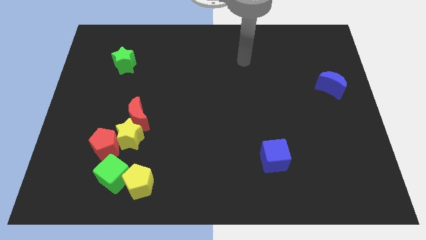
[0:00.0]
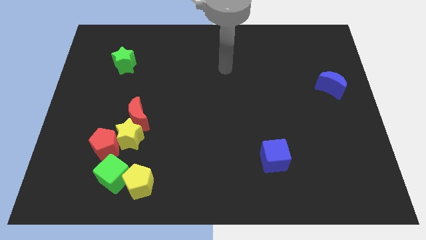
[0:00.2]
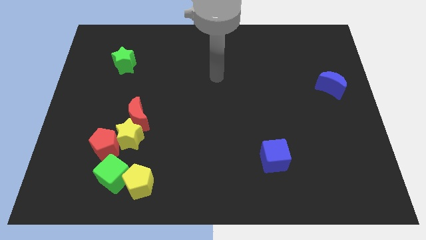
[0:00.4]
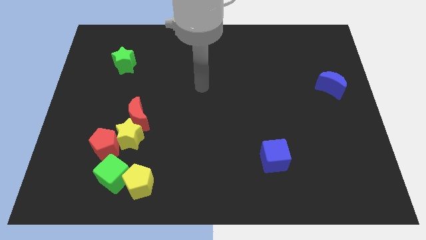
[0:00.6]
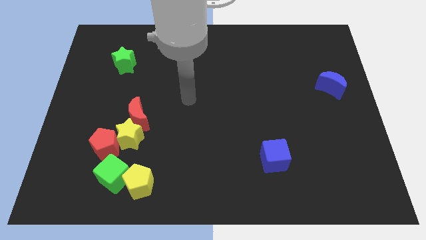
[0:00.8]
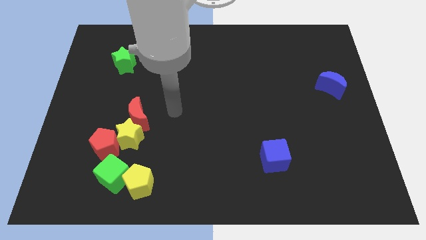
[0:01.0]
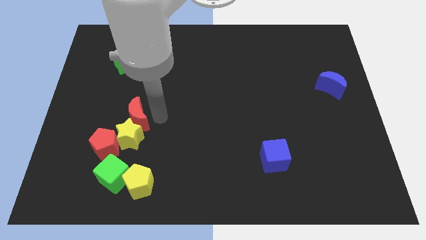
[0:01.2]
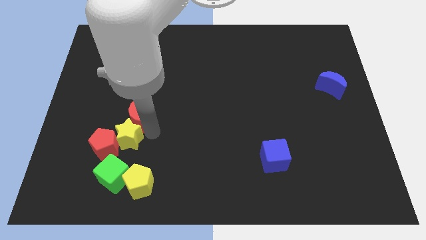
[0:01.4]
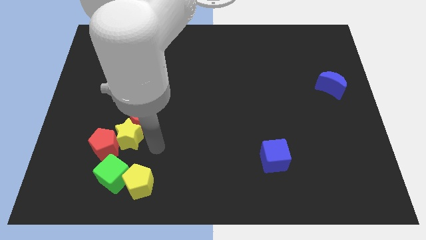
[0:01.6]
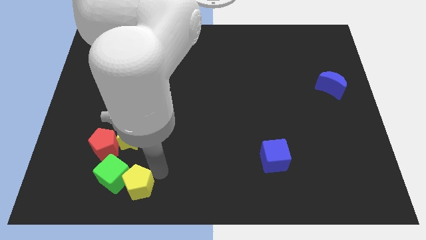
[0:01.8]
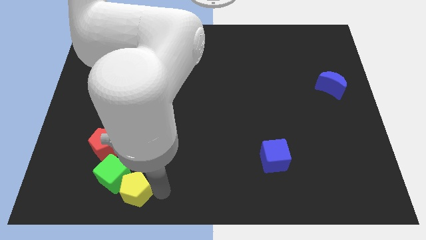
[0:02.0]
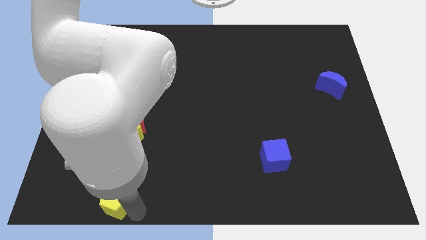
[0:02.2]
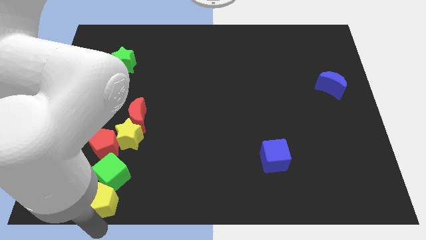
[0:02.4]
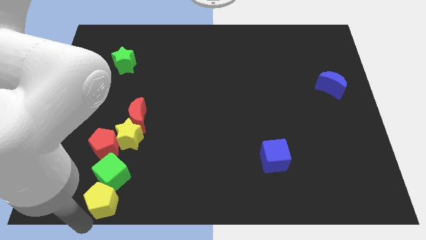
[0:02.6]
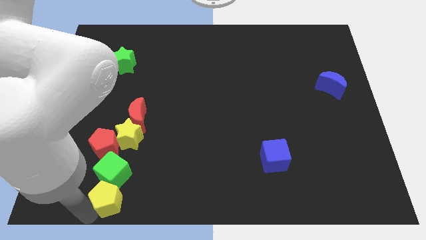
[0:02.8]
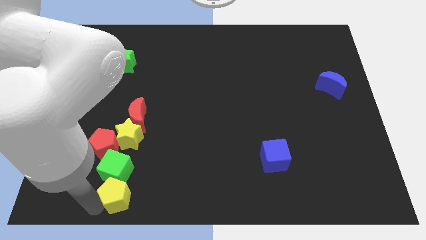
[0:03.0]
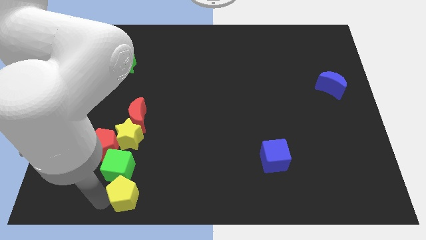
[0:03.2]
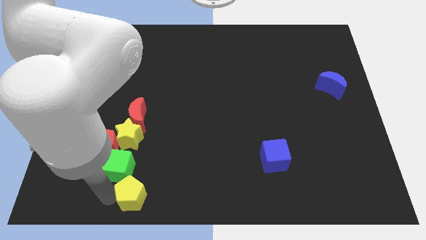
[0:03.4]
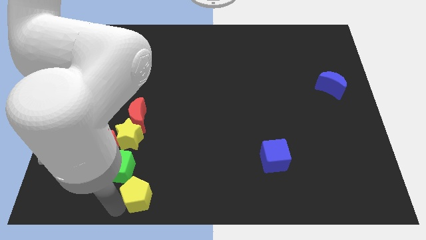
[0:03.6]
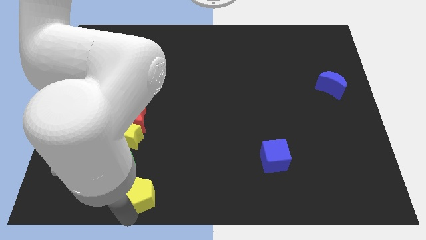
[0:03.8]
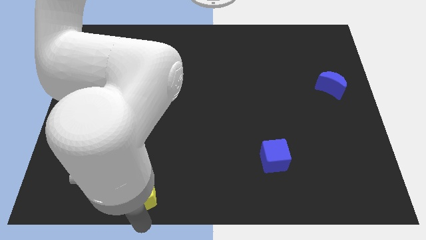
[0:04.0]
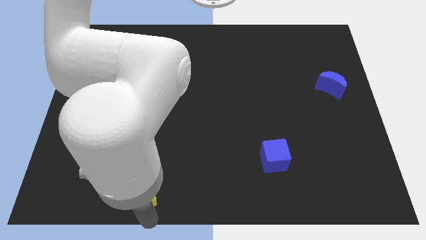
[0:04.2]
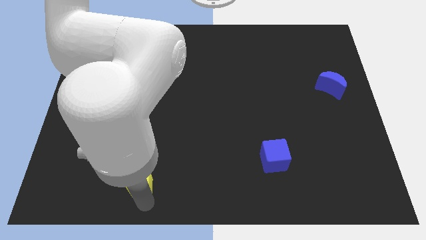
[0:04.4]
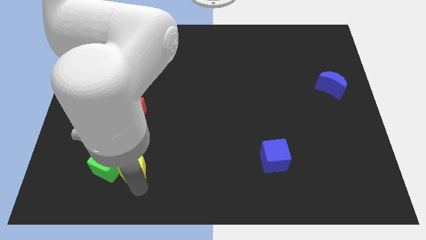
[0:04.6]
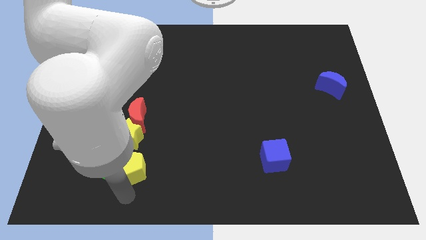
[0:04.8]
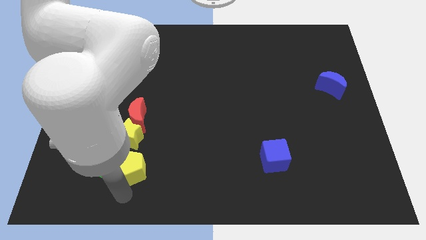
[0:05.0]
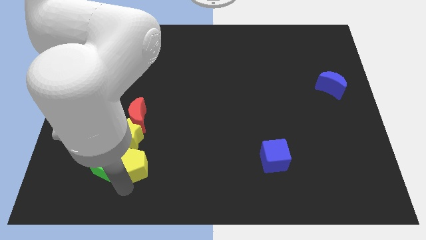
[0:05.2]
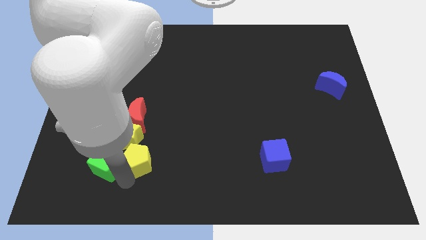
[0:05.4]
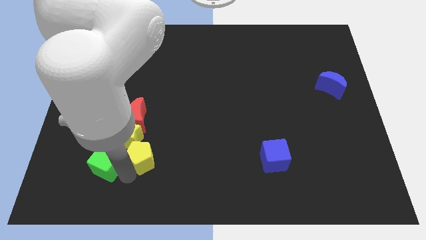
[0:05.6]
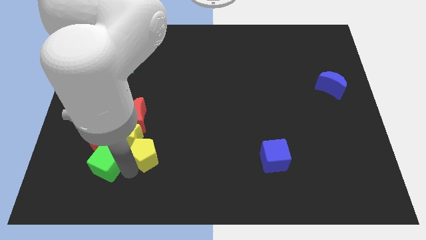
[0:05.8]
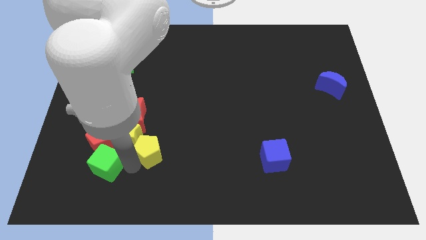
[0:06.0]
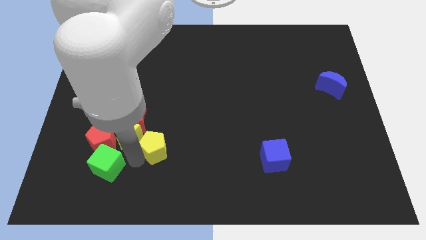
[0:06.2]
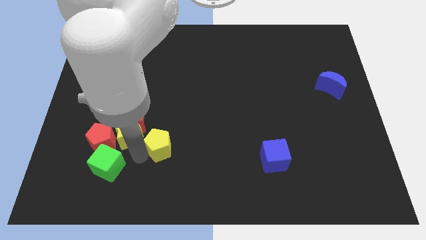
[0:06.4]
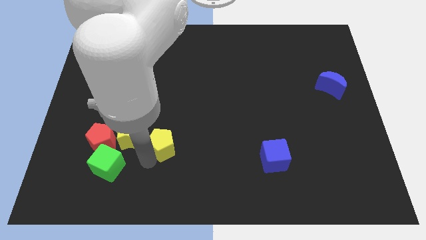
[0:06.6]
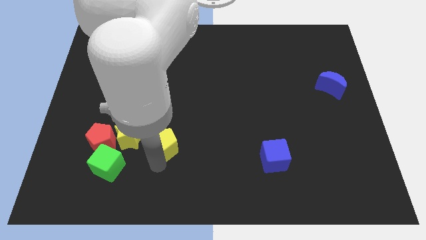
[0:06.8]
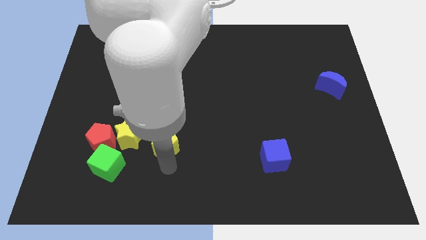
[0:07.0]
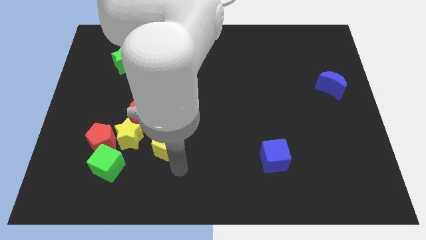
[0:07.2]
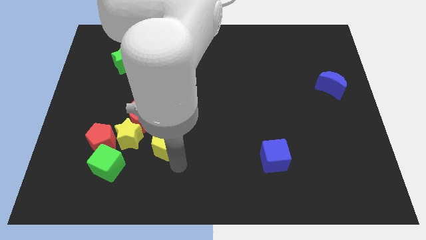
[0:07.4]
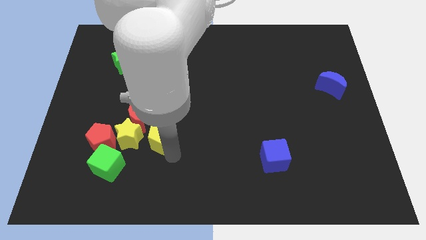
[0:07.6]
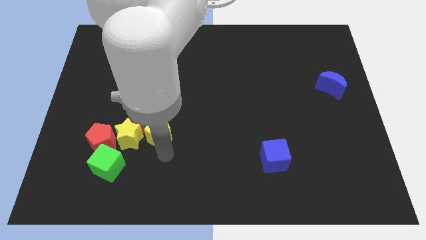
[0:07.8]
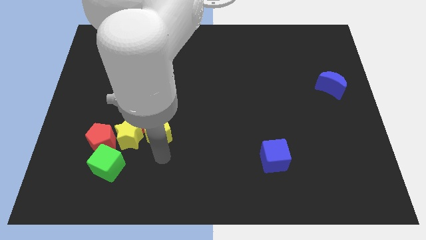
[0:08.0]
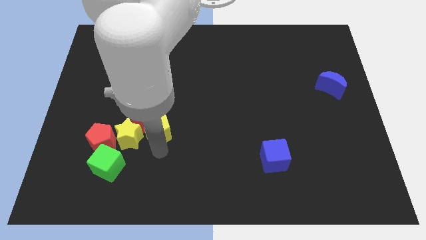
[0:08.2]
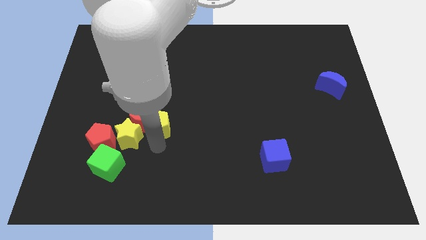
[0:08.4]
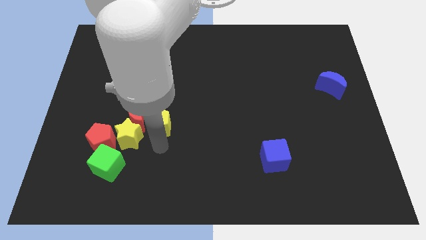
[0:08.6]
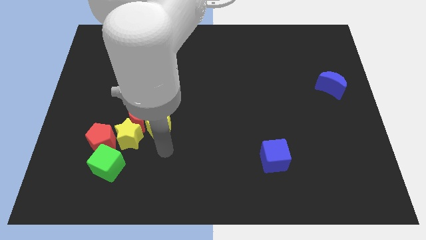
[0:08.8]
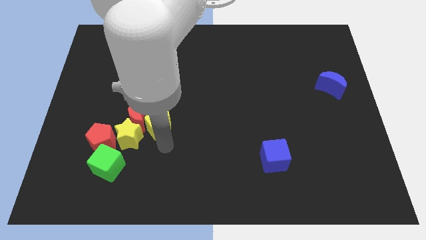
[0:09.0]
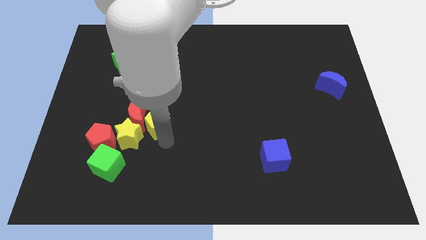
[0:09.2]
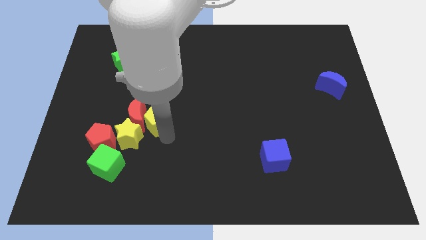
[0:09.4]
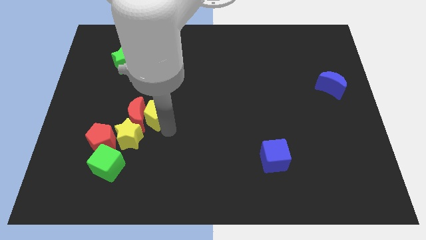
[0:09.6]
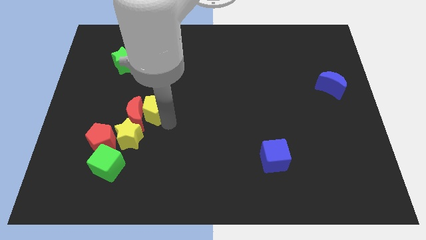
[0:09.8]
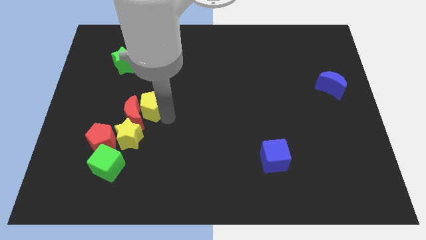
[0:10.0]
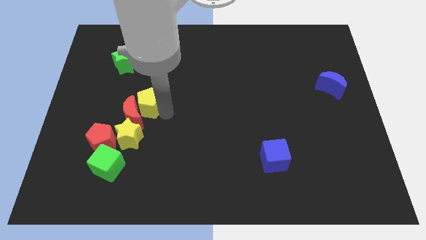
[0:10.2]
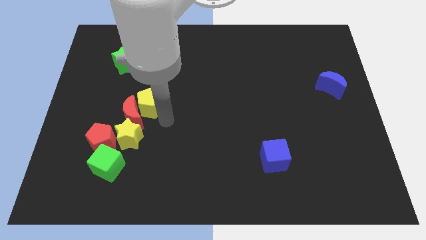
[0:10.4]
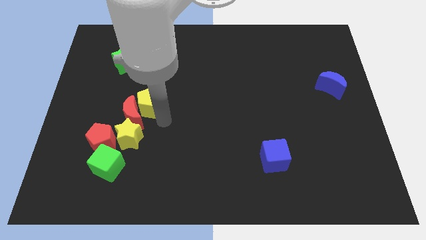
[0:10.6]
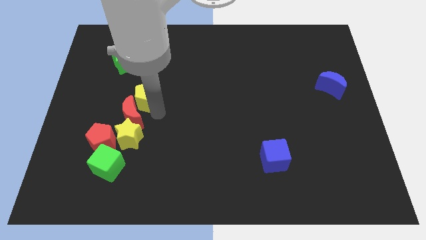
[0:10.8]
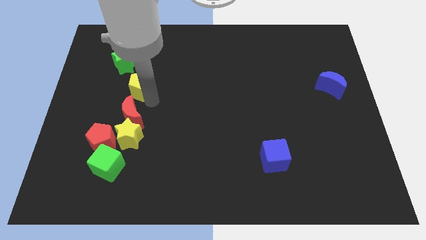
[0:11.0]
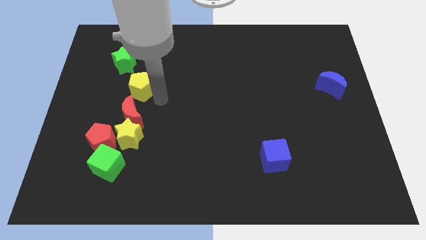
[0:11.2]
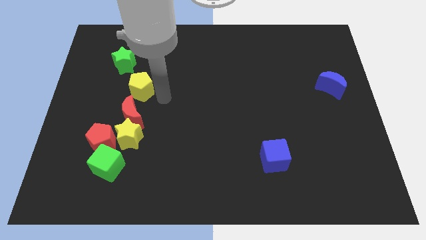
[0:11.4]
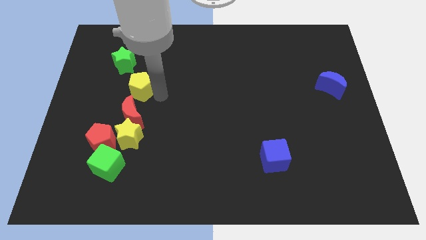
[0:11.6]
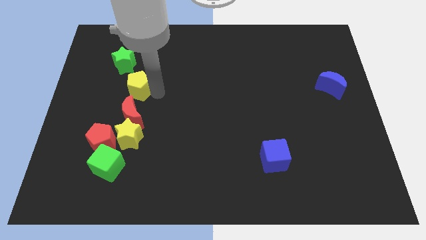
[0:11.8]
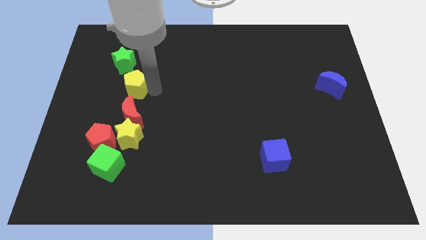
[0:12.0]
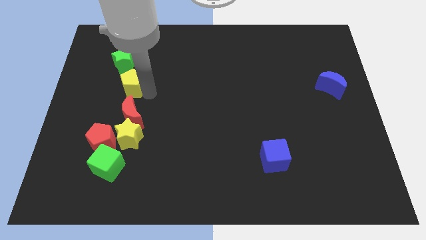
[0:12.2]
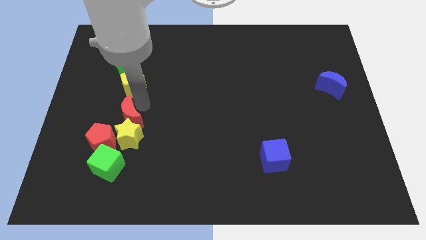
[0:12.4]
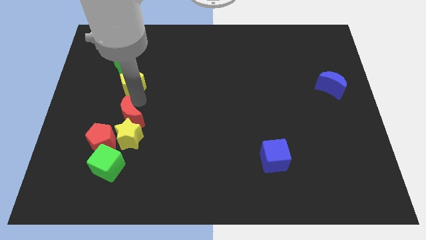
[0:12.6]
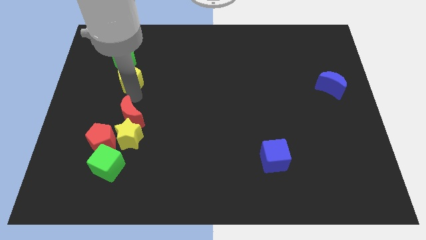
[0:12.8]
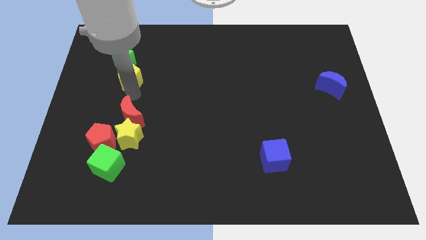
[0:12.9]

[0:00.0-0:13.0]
put the yellow pentagon to the green star

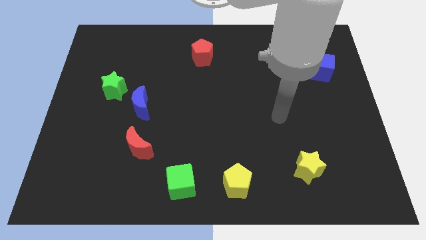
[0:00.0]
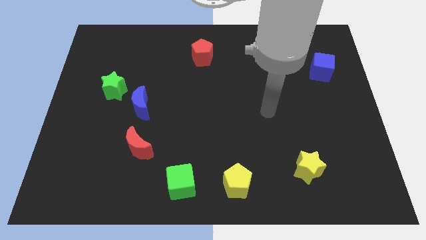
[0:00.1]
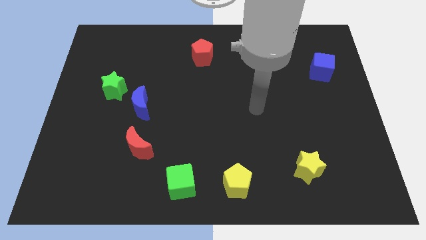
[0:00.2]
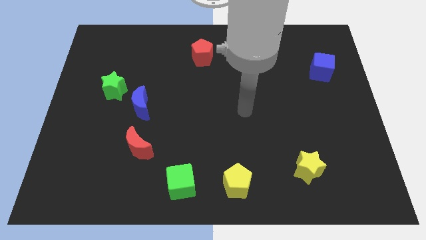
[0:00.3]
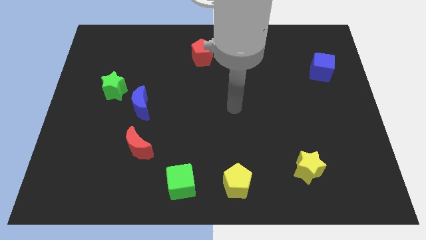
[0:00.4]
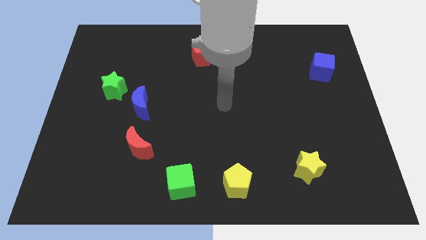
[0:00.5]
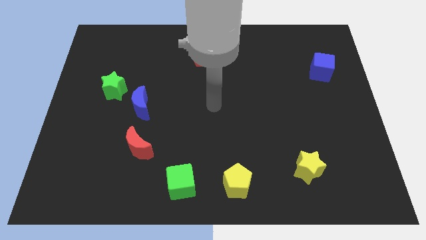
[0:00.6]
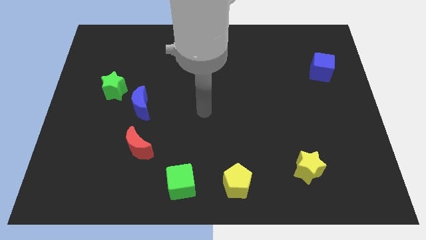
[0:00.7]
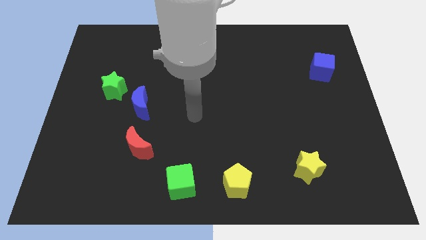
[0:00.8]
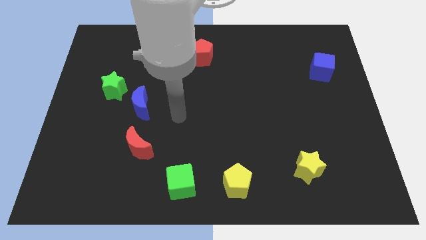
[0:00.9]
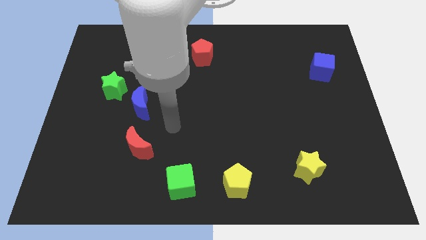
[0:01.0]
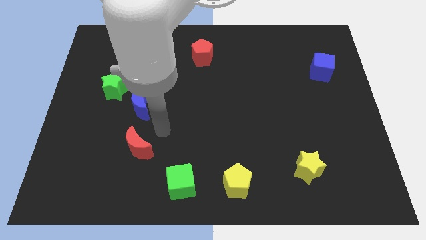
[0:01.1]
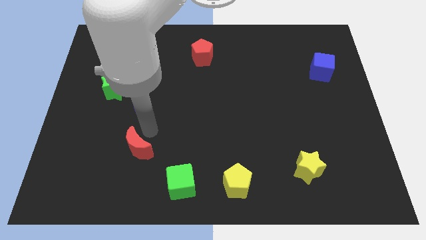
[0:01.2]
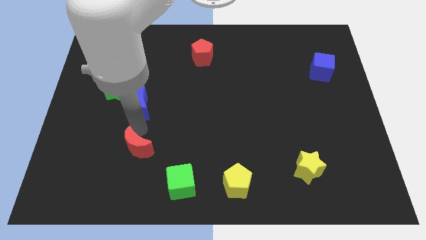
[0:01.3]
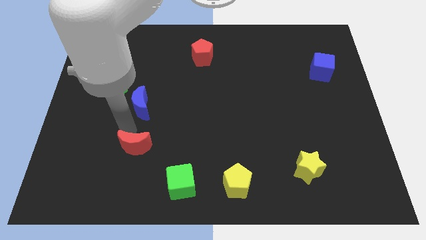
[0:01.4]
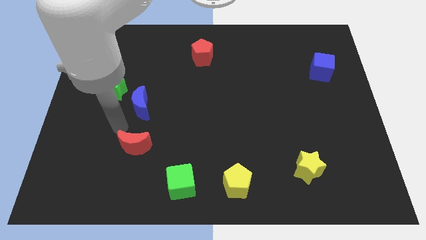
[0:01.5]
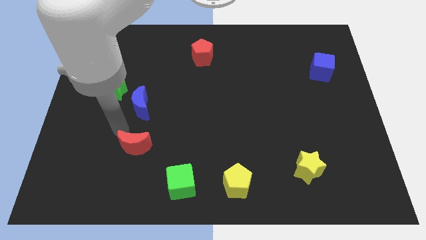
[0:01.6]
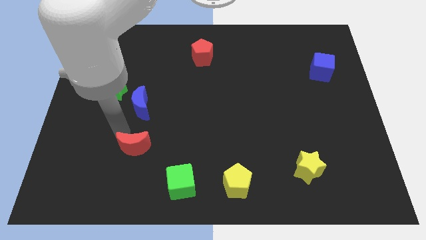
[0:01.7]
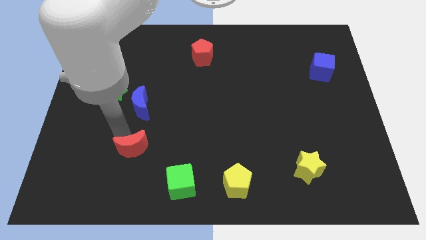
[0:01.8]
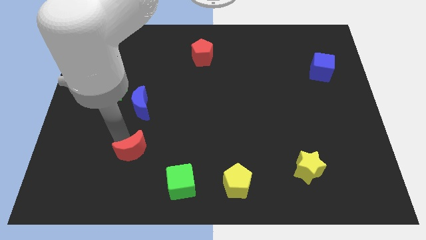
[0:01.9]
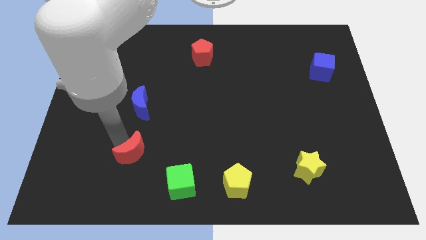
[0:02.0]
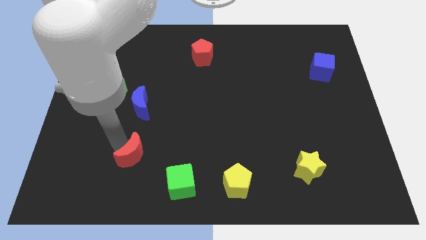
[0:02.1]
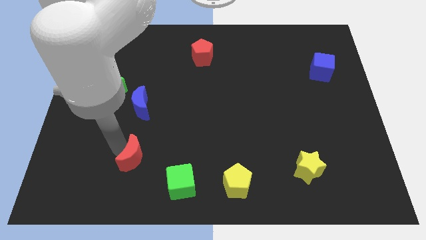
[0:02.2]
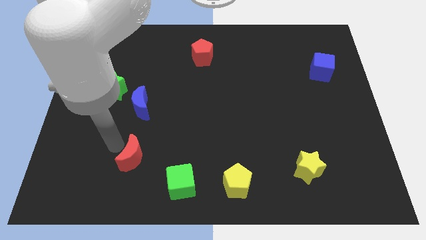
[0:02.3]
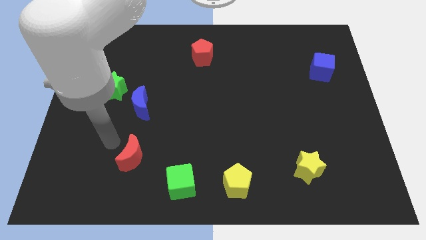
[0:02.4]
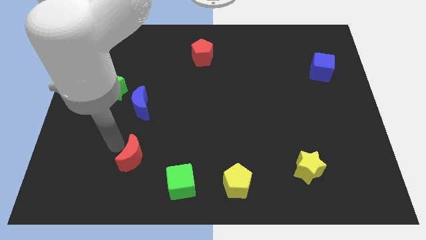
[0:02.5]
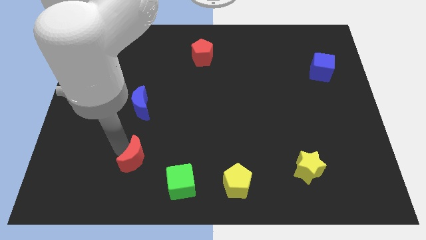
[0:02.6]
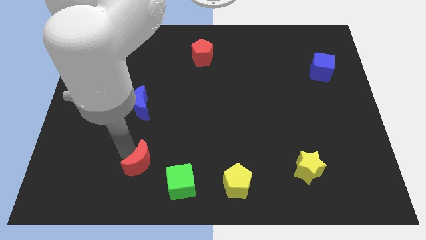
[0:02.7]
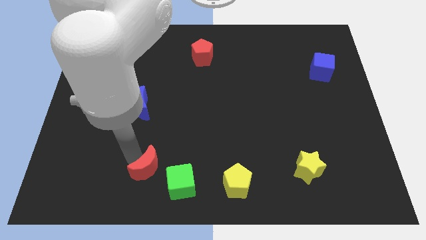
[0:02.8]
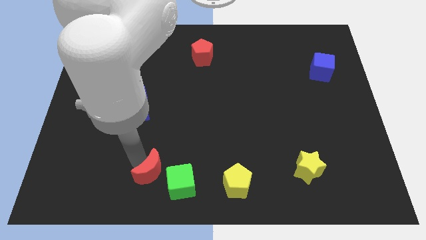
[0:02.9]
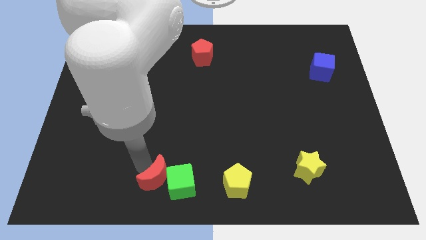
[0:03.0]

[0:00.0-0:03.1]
slide the red moon close to the green cube
